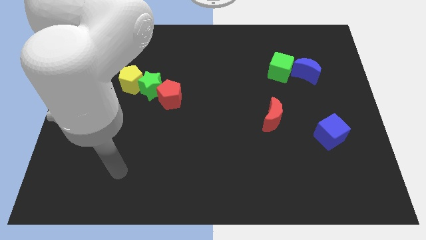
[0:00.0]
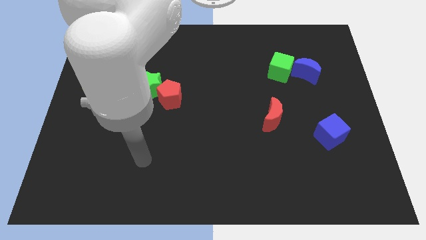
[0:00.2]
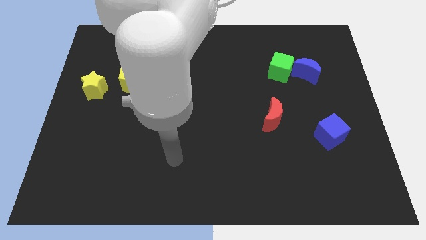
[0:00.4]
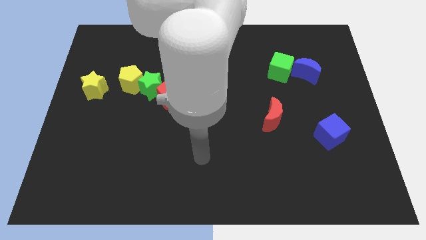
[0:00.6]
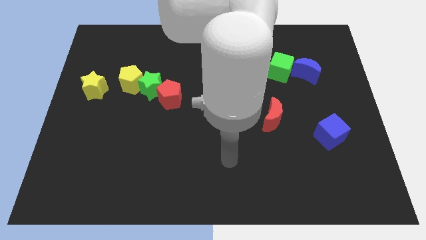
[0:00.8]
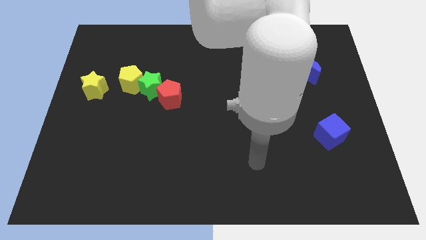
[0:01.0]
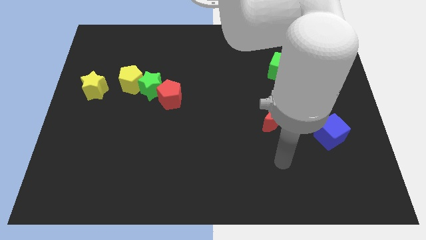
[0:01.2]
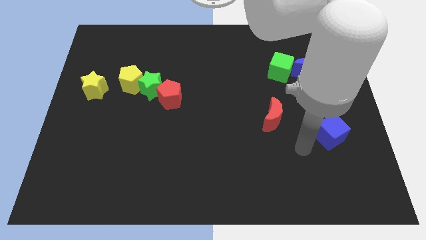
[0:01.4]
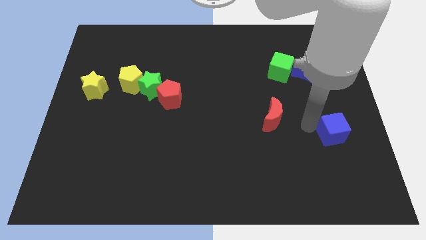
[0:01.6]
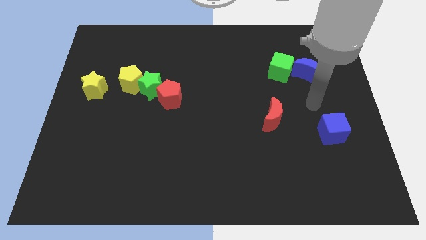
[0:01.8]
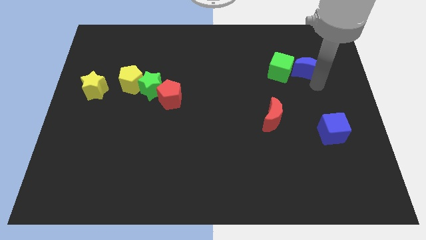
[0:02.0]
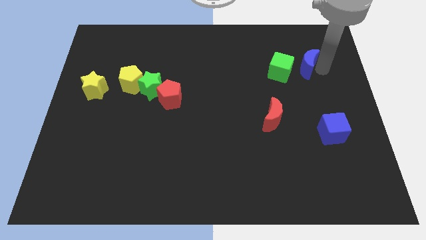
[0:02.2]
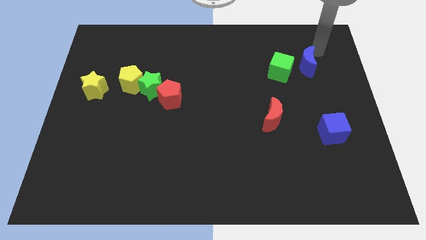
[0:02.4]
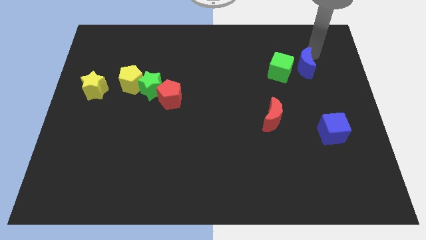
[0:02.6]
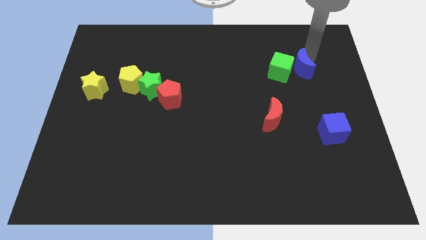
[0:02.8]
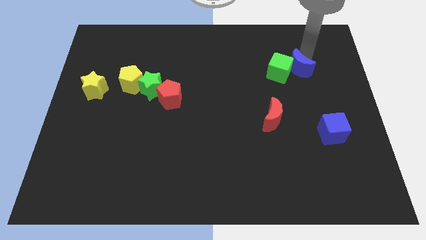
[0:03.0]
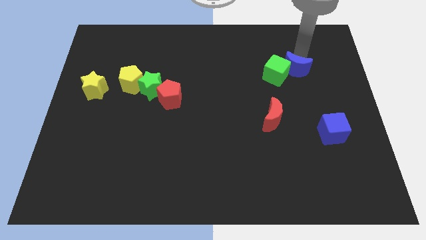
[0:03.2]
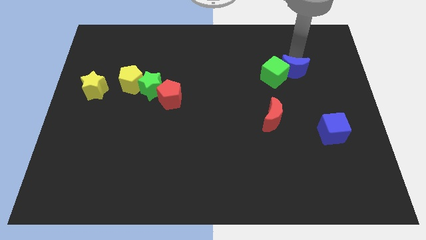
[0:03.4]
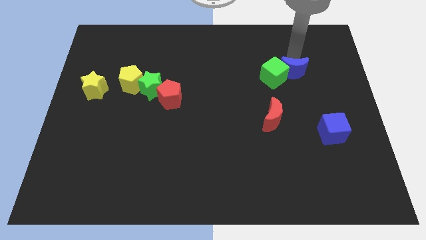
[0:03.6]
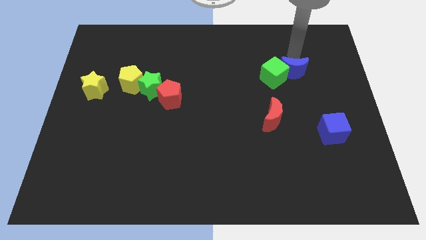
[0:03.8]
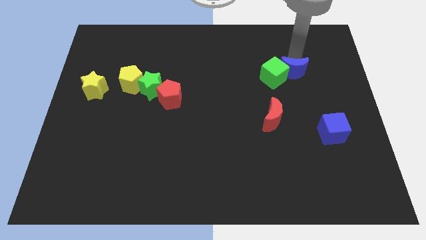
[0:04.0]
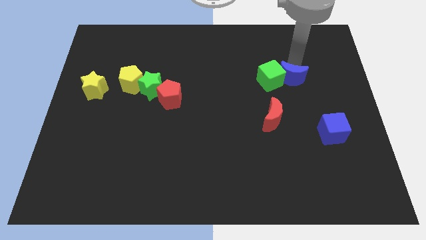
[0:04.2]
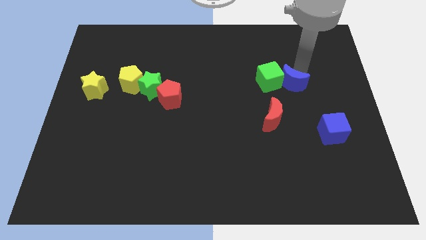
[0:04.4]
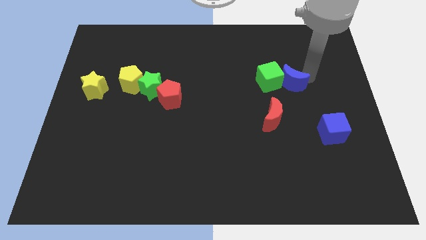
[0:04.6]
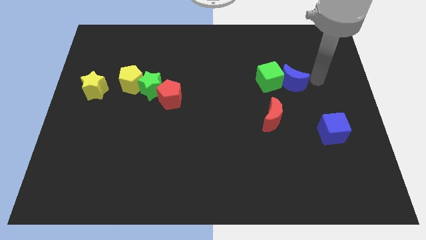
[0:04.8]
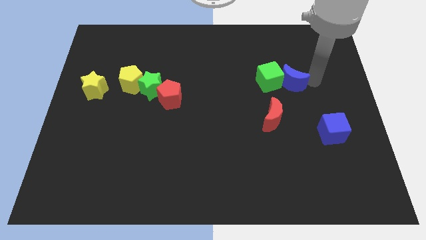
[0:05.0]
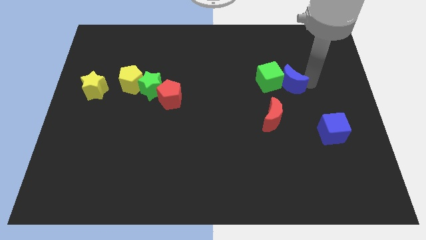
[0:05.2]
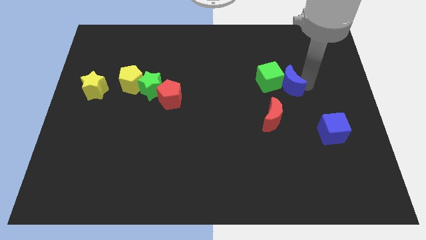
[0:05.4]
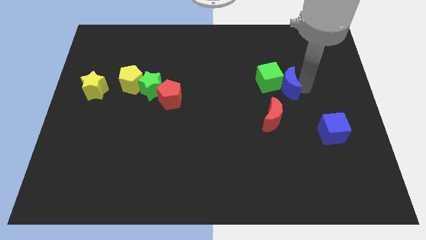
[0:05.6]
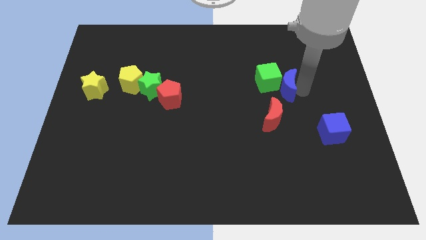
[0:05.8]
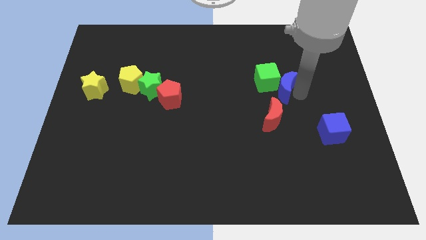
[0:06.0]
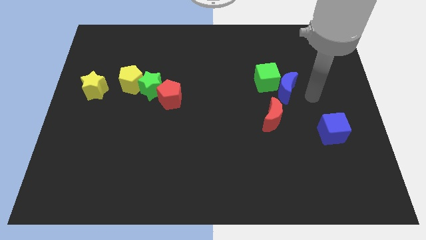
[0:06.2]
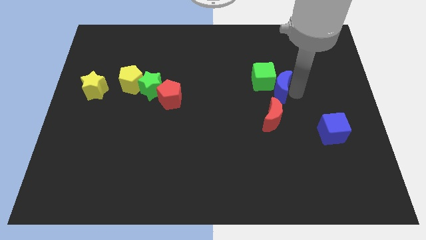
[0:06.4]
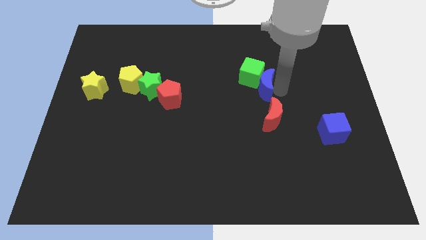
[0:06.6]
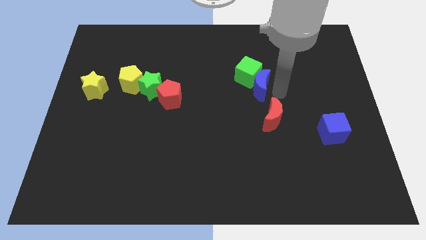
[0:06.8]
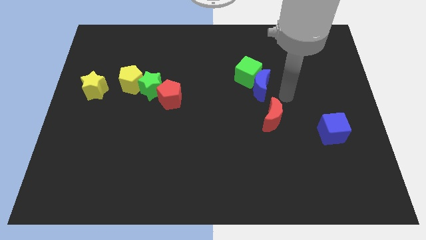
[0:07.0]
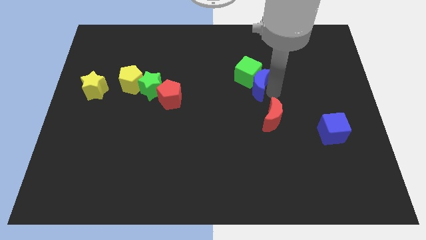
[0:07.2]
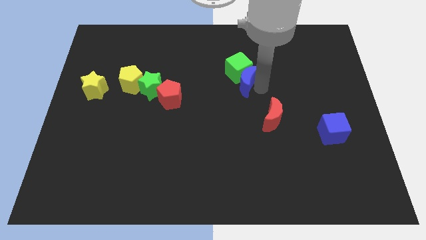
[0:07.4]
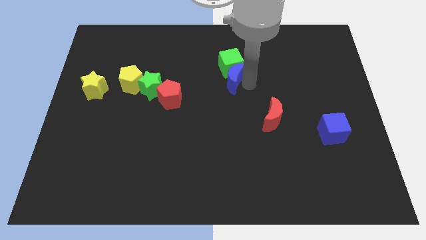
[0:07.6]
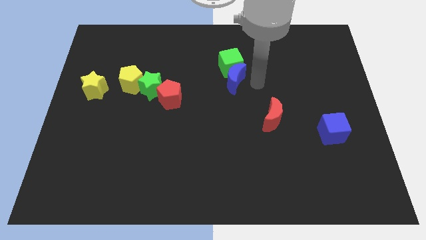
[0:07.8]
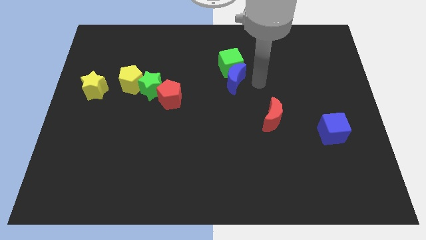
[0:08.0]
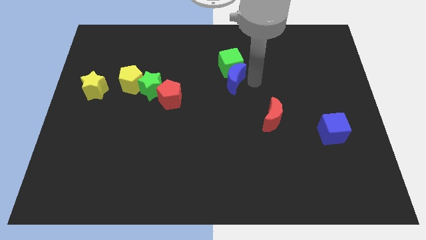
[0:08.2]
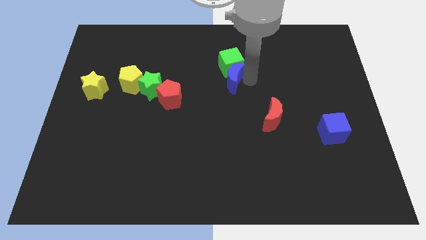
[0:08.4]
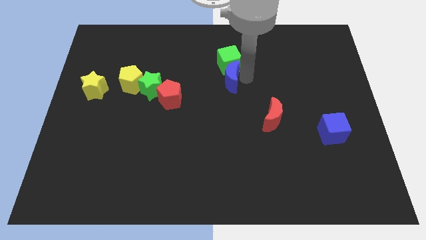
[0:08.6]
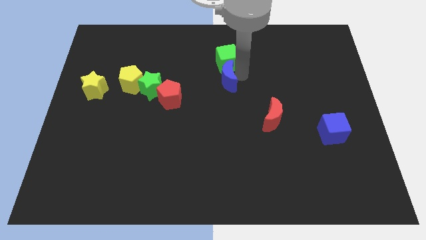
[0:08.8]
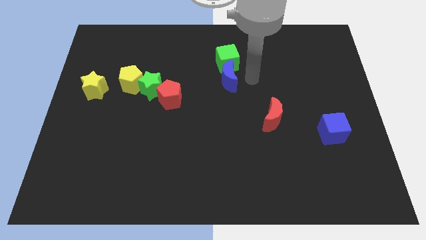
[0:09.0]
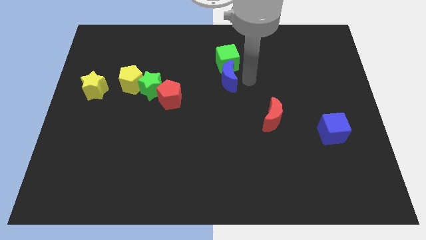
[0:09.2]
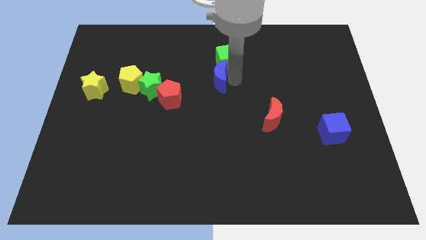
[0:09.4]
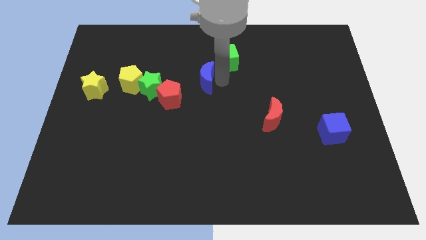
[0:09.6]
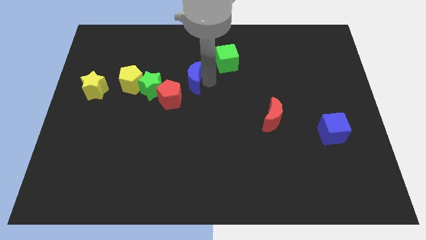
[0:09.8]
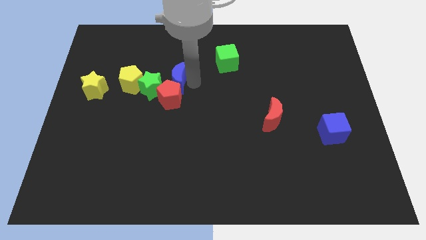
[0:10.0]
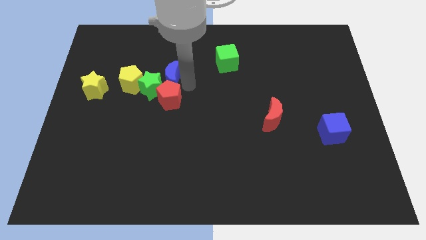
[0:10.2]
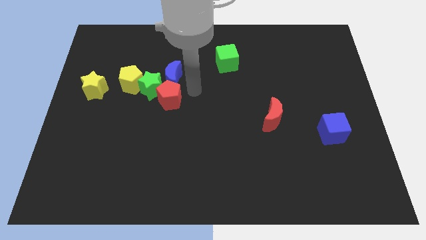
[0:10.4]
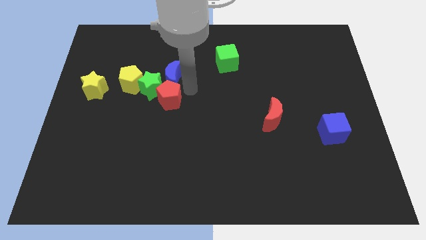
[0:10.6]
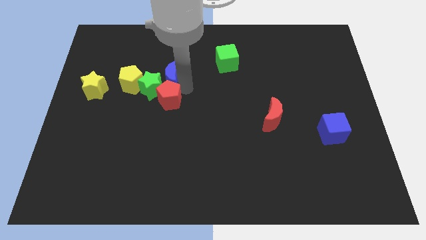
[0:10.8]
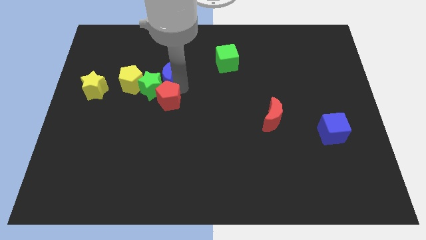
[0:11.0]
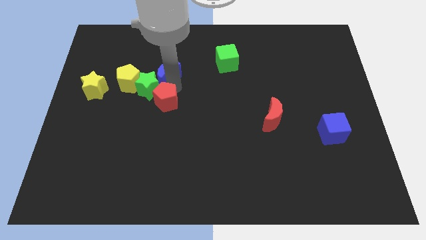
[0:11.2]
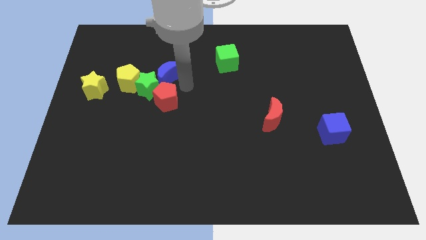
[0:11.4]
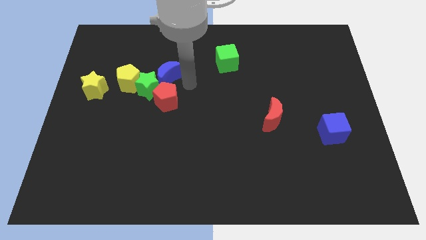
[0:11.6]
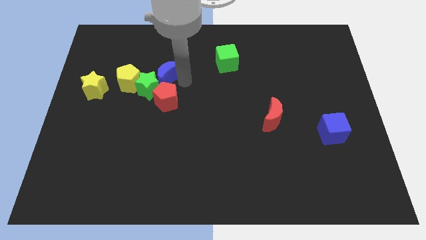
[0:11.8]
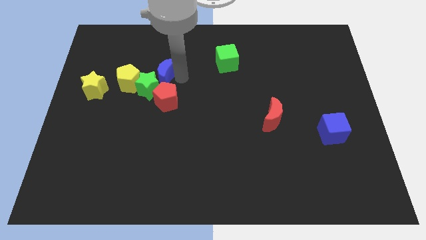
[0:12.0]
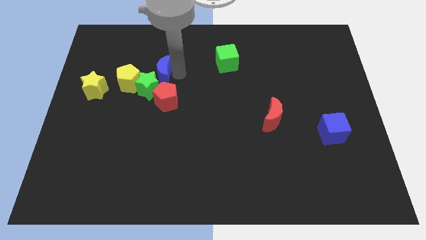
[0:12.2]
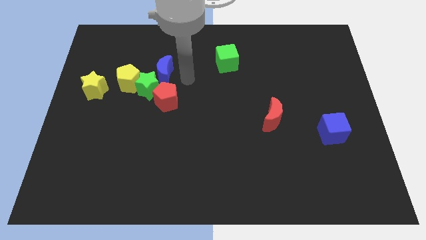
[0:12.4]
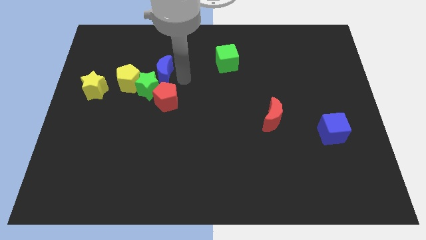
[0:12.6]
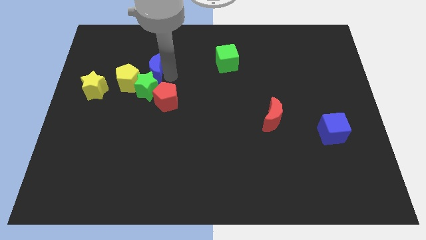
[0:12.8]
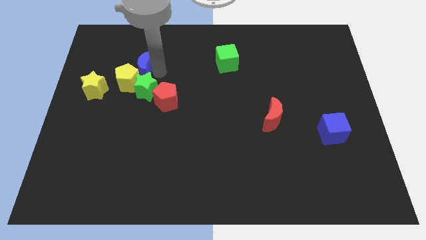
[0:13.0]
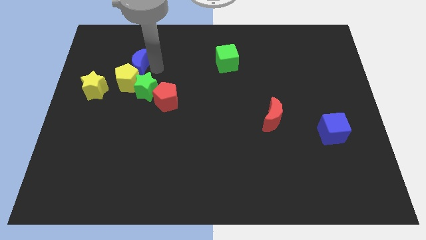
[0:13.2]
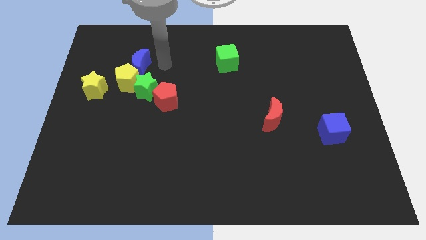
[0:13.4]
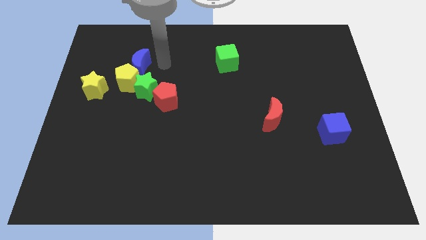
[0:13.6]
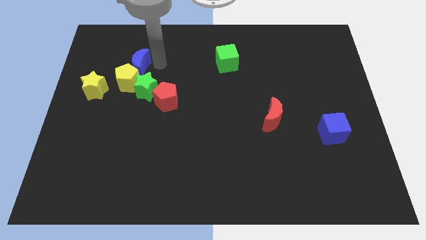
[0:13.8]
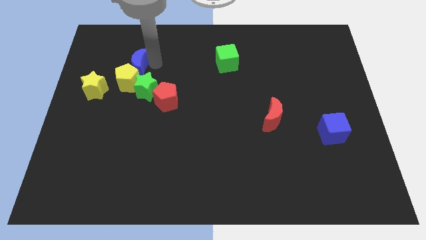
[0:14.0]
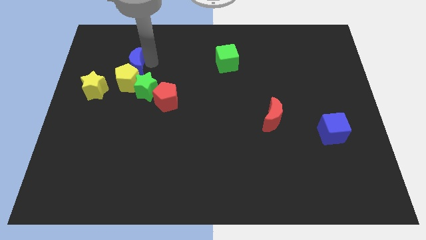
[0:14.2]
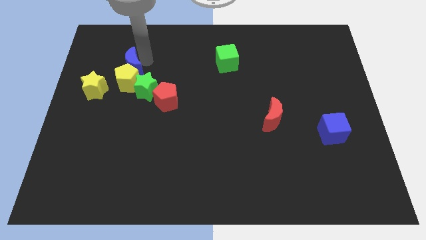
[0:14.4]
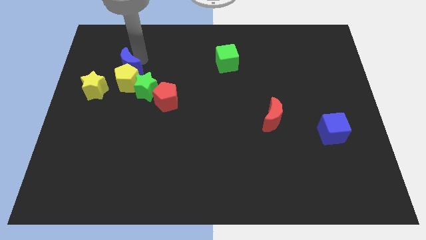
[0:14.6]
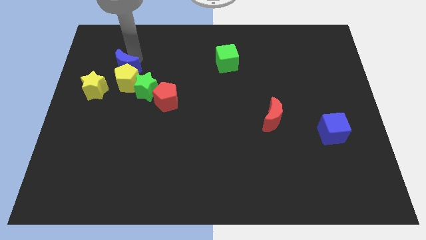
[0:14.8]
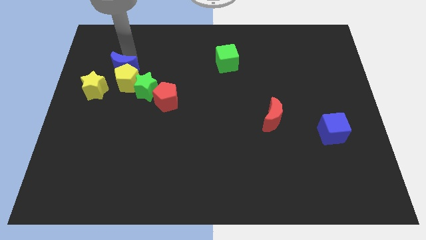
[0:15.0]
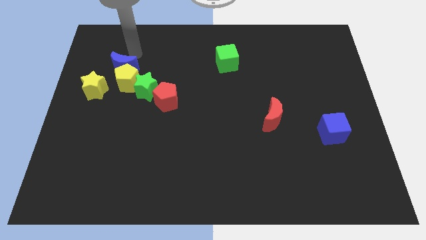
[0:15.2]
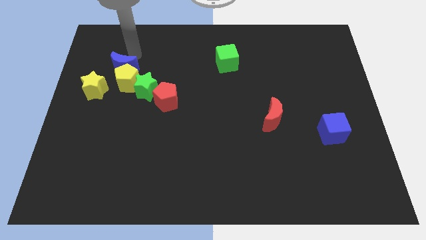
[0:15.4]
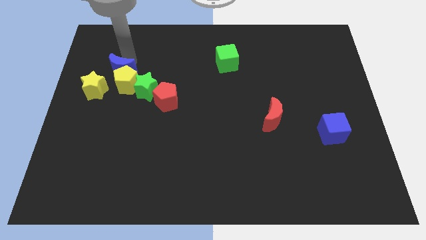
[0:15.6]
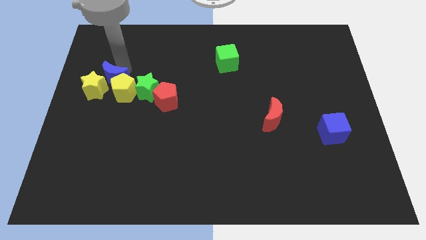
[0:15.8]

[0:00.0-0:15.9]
push the blue moon to the yellow star

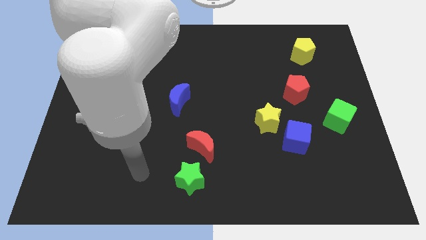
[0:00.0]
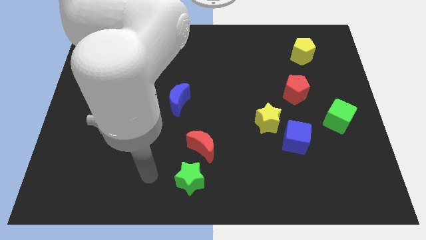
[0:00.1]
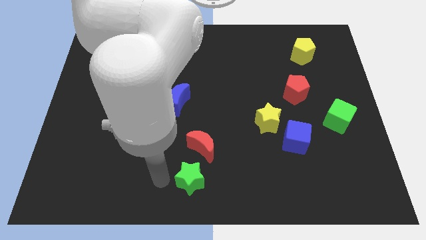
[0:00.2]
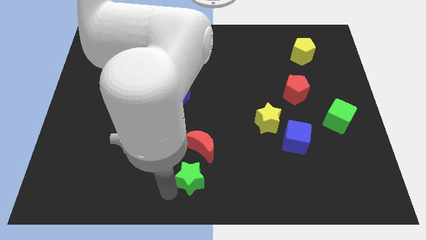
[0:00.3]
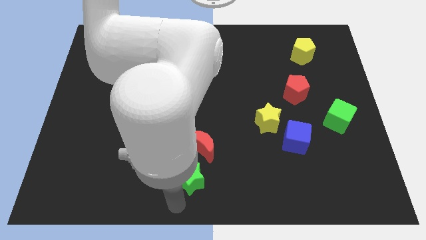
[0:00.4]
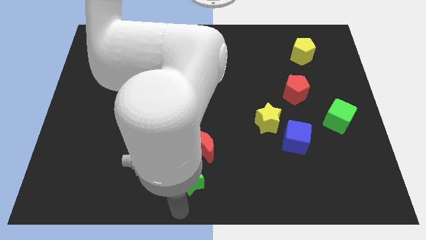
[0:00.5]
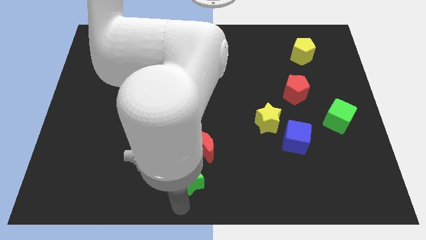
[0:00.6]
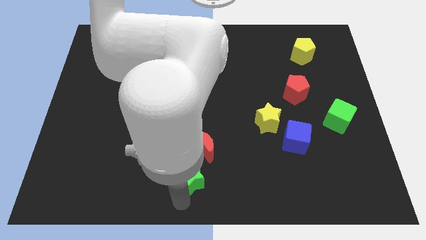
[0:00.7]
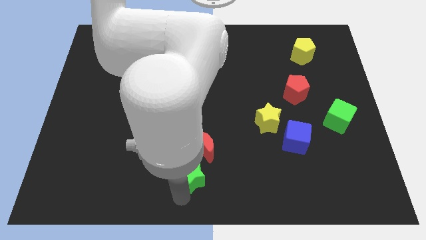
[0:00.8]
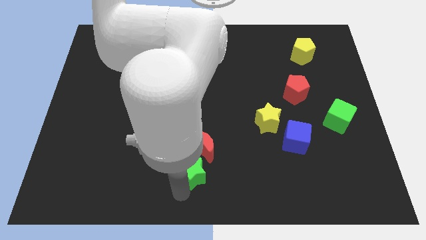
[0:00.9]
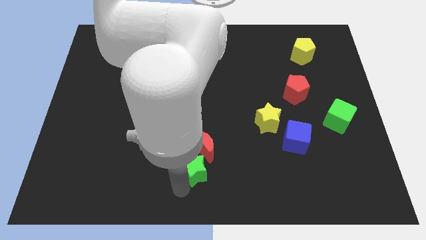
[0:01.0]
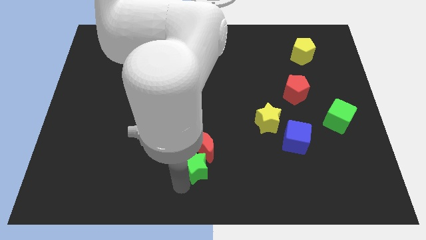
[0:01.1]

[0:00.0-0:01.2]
put the green star close to the red moon
